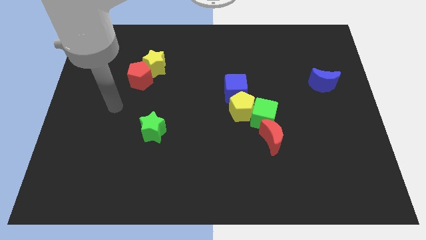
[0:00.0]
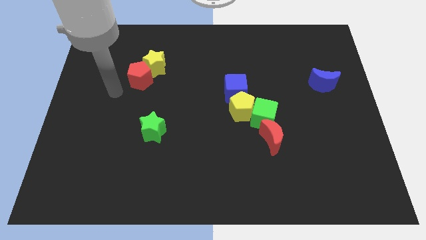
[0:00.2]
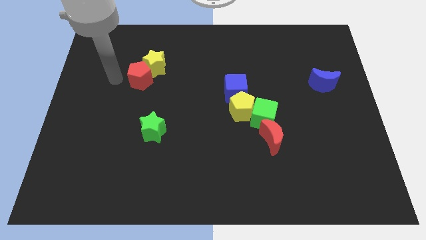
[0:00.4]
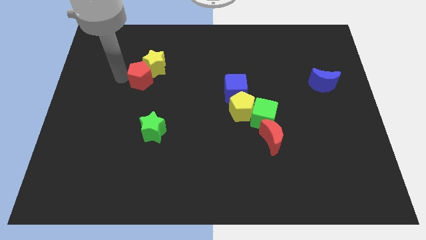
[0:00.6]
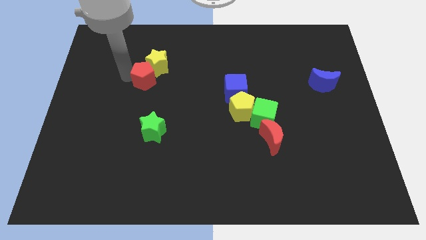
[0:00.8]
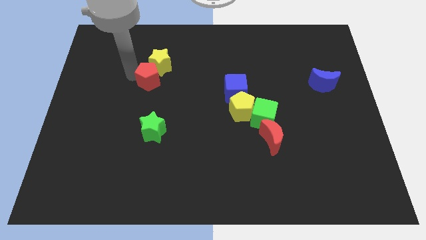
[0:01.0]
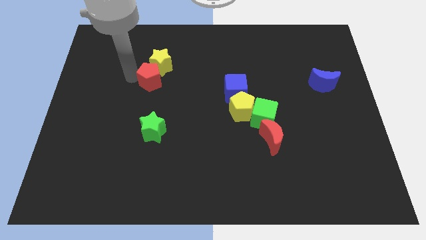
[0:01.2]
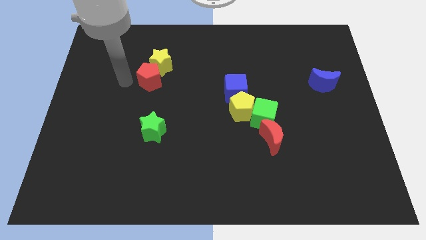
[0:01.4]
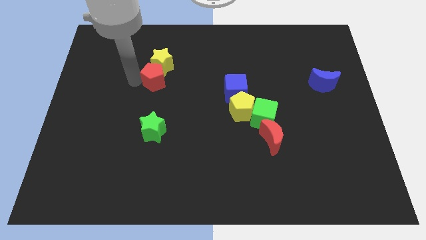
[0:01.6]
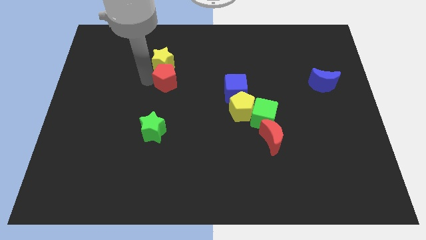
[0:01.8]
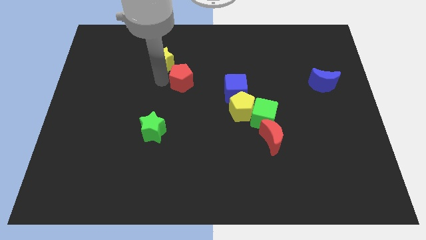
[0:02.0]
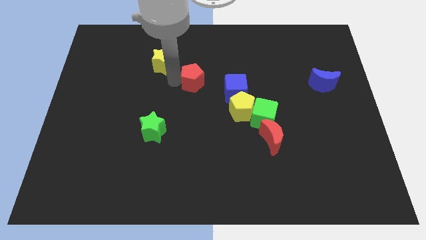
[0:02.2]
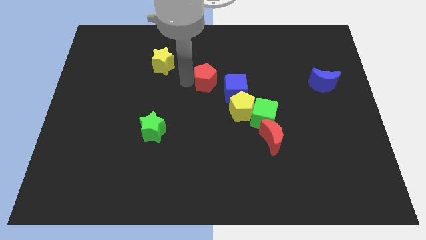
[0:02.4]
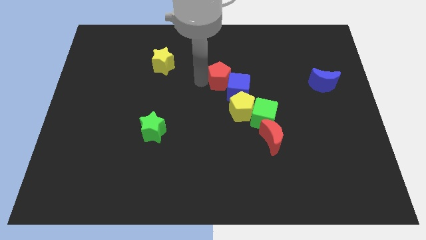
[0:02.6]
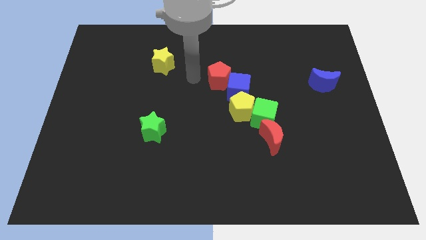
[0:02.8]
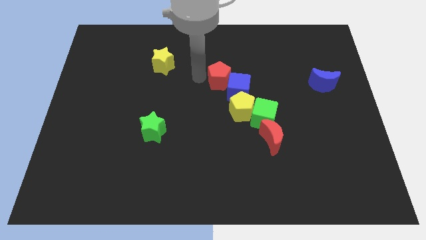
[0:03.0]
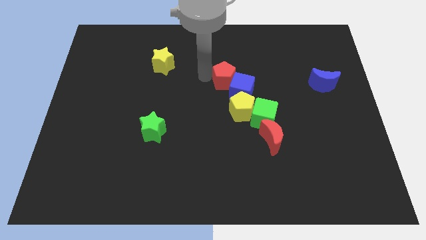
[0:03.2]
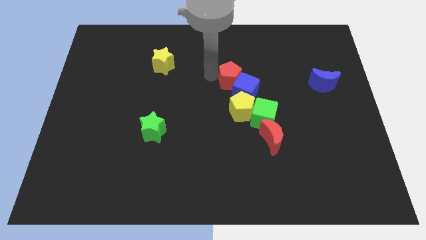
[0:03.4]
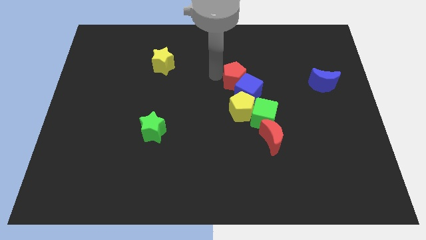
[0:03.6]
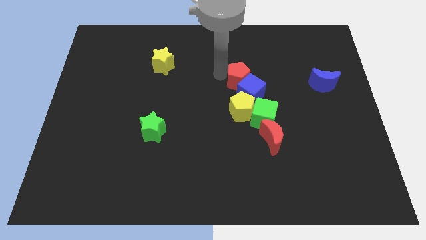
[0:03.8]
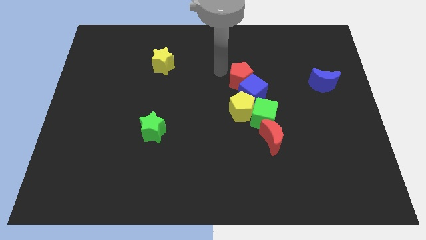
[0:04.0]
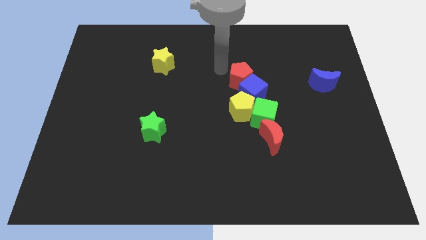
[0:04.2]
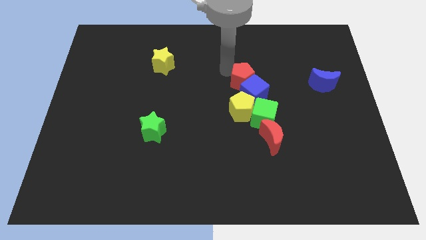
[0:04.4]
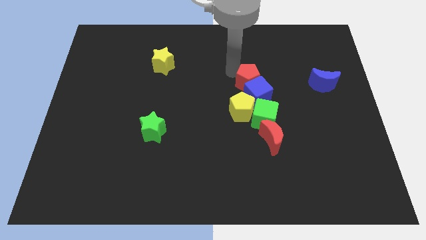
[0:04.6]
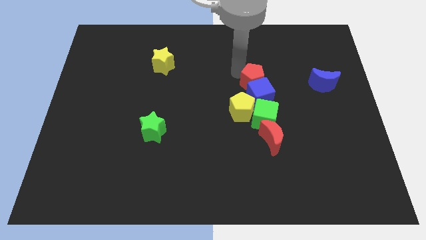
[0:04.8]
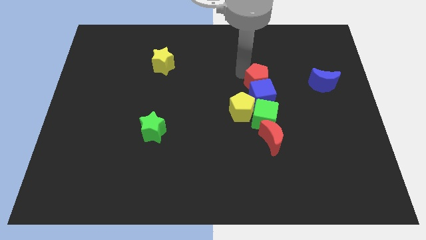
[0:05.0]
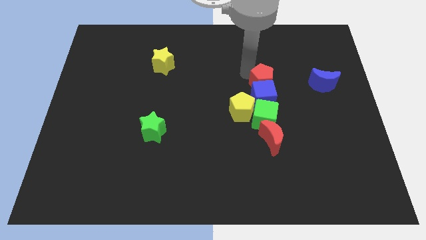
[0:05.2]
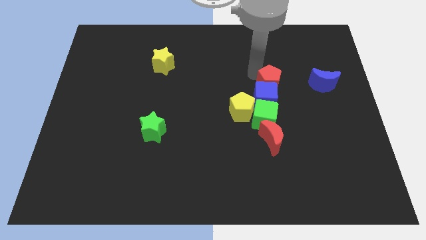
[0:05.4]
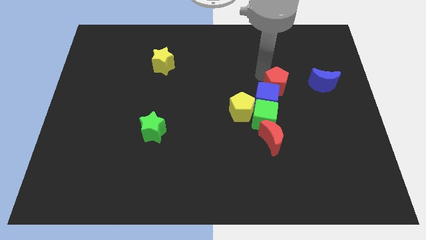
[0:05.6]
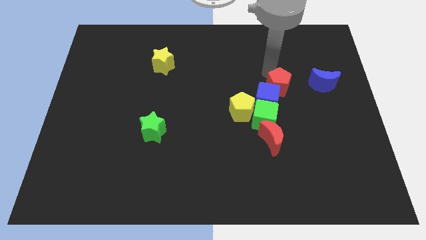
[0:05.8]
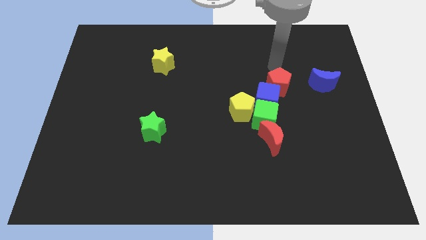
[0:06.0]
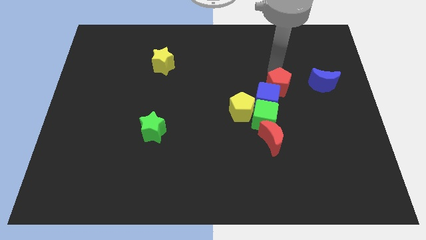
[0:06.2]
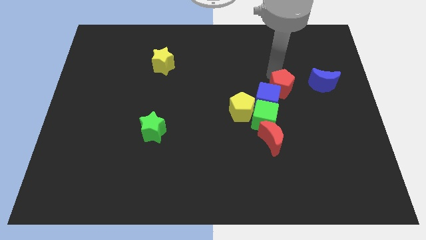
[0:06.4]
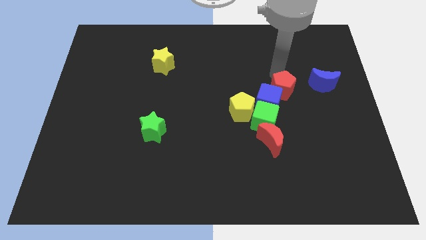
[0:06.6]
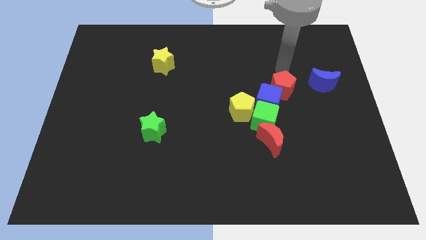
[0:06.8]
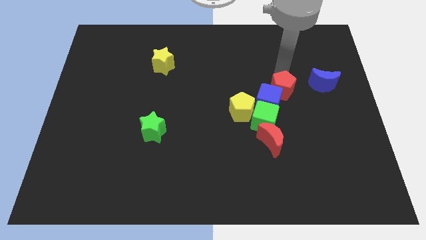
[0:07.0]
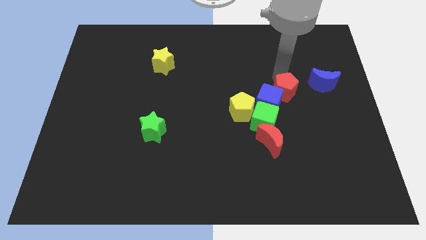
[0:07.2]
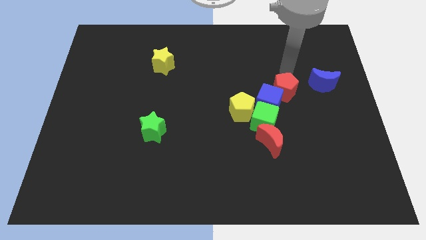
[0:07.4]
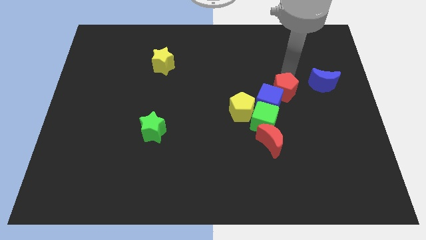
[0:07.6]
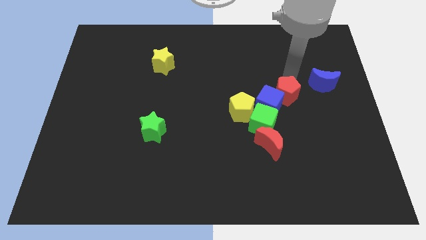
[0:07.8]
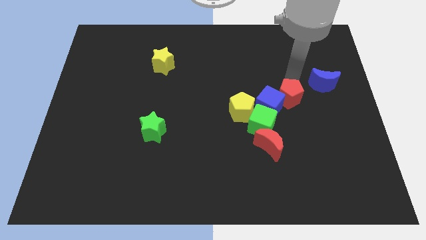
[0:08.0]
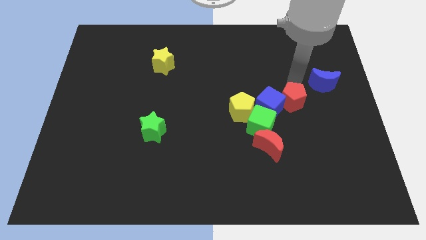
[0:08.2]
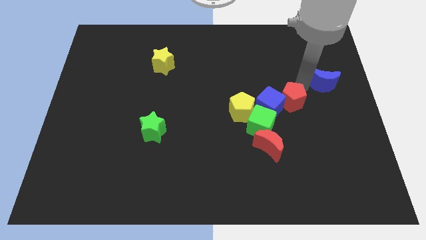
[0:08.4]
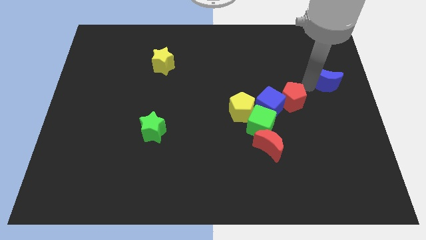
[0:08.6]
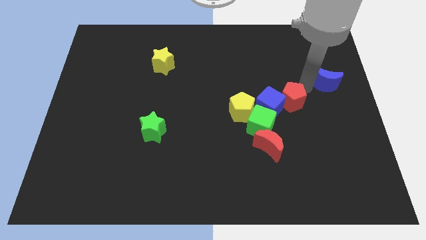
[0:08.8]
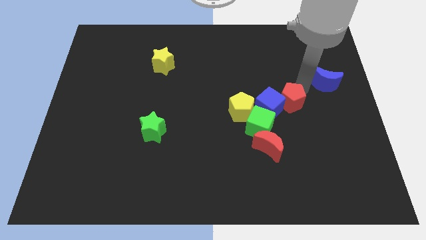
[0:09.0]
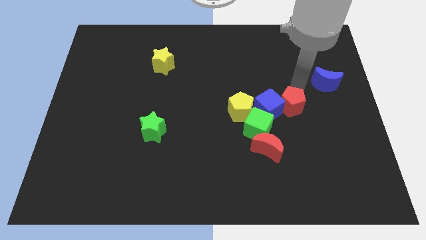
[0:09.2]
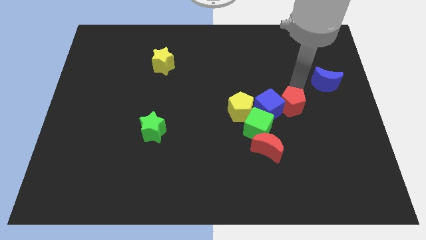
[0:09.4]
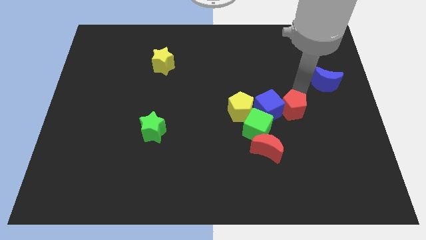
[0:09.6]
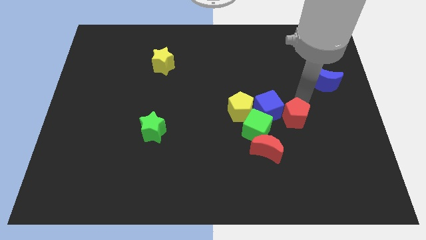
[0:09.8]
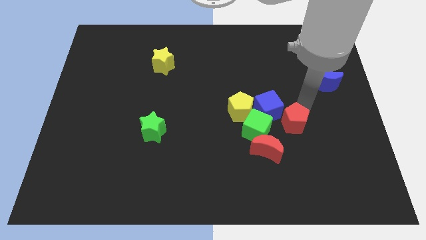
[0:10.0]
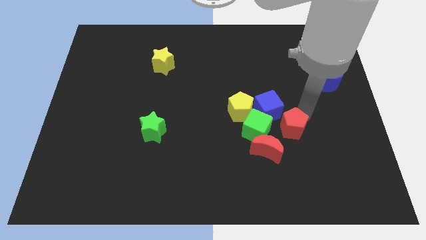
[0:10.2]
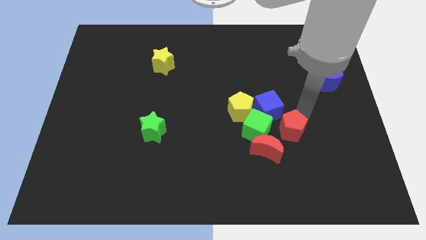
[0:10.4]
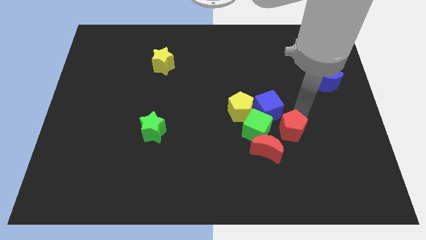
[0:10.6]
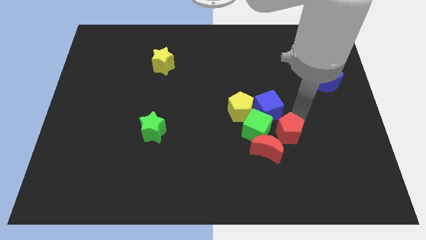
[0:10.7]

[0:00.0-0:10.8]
push the red pentagon diagonally down and to the right of the green cube

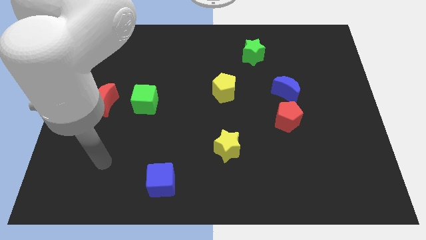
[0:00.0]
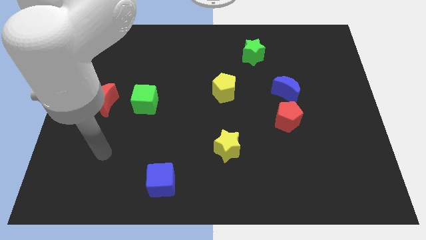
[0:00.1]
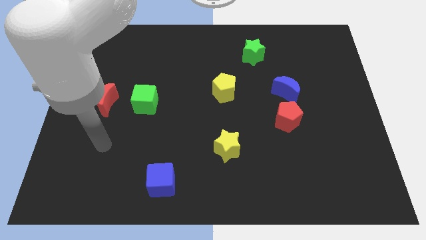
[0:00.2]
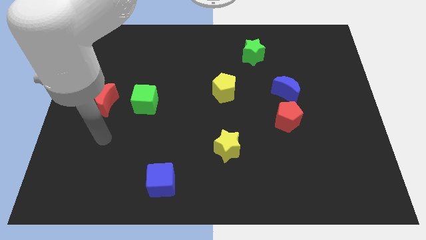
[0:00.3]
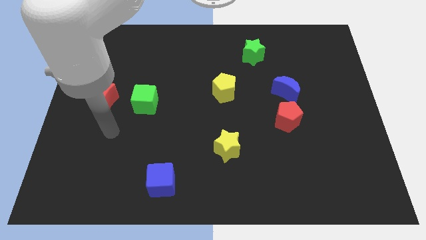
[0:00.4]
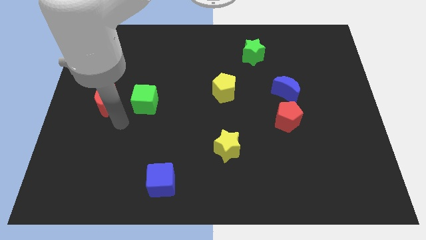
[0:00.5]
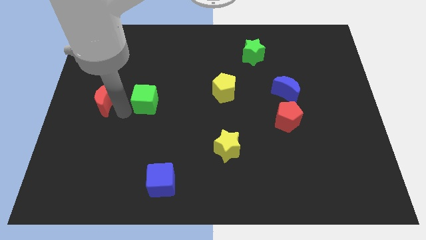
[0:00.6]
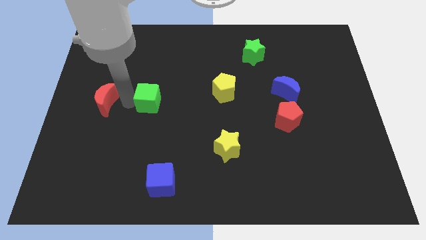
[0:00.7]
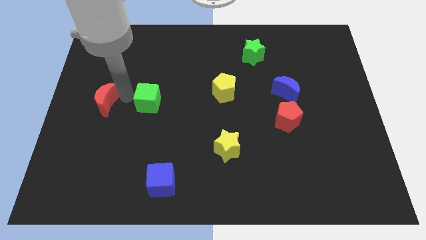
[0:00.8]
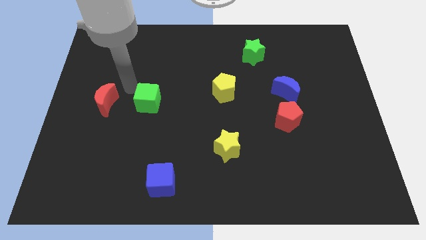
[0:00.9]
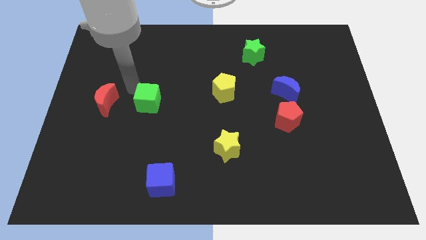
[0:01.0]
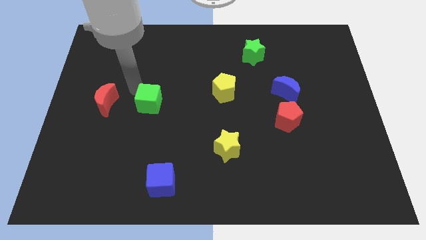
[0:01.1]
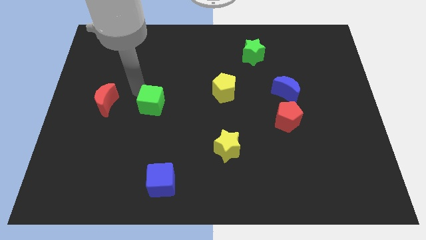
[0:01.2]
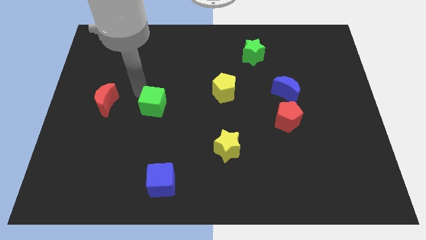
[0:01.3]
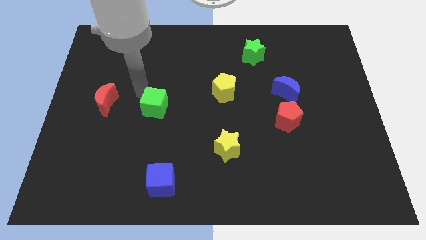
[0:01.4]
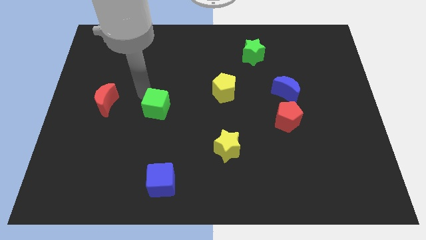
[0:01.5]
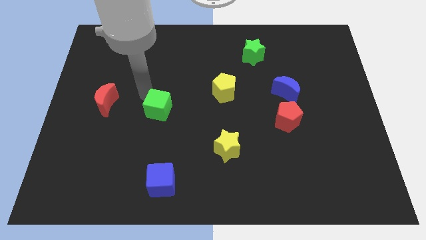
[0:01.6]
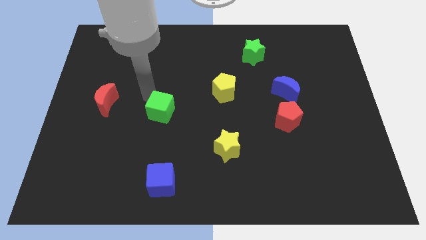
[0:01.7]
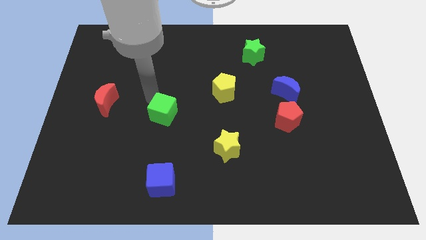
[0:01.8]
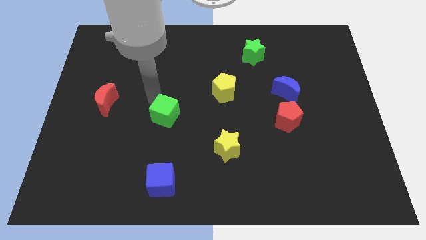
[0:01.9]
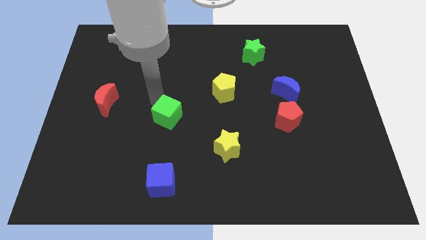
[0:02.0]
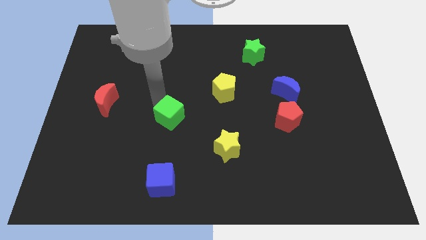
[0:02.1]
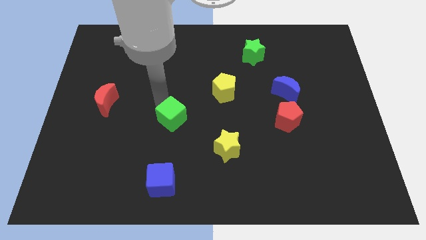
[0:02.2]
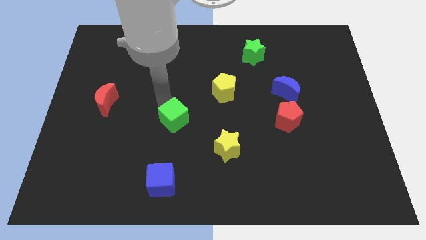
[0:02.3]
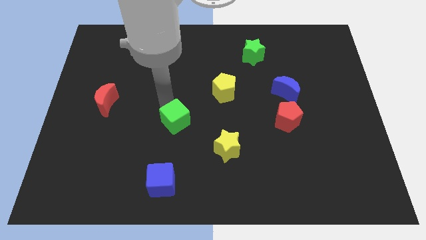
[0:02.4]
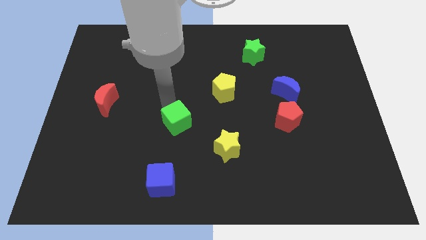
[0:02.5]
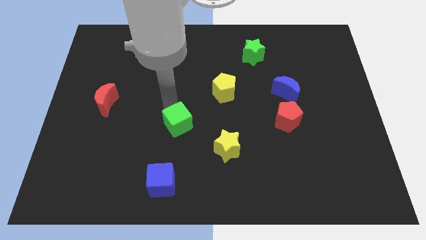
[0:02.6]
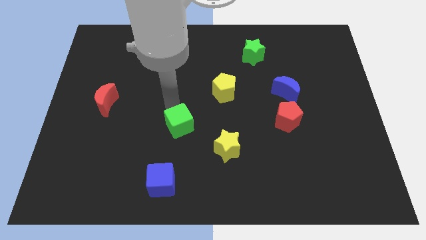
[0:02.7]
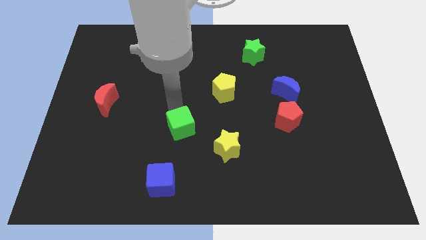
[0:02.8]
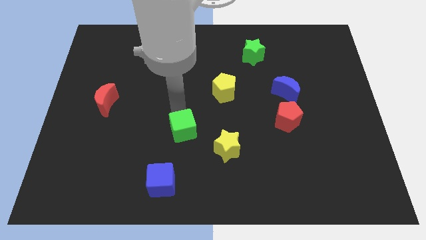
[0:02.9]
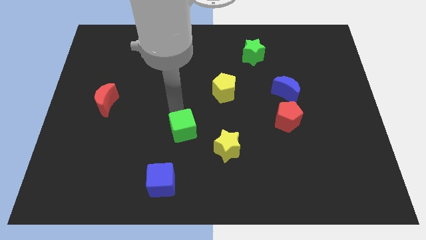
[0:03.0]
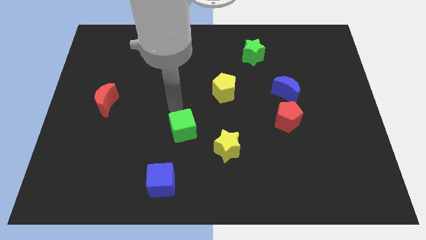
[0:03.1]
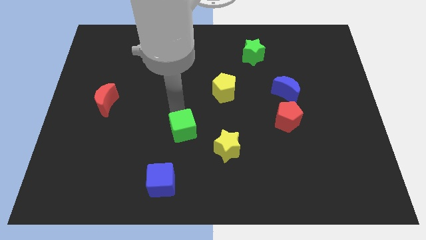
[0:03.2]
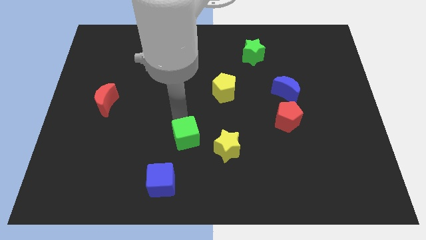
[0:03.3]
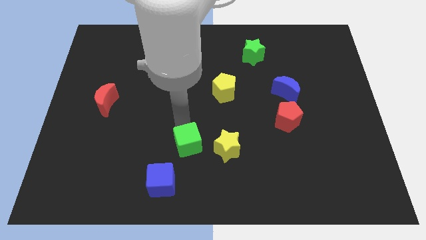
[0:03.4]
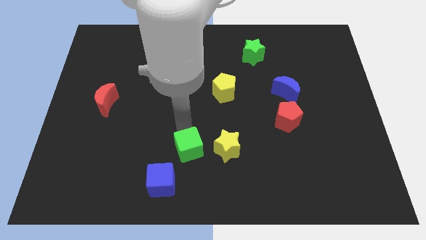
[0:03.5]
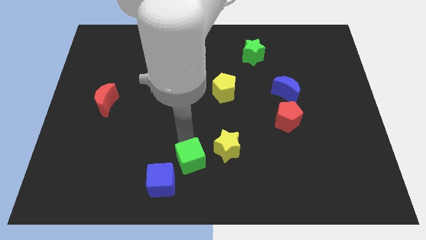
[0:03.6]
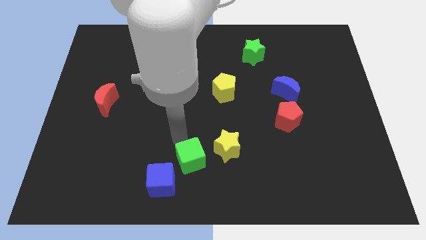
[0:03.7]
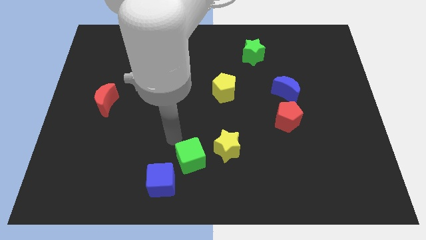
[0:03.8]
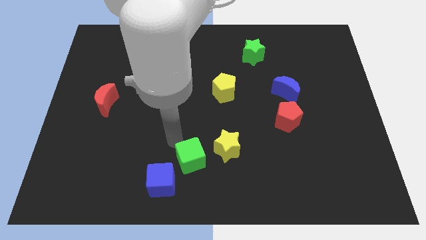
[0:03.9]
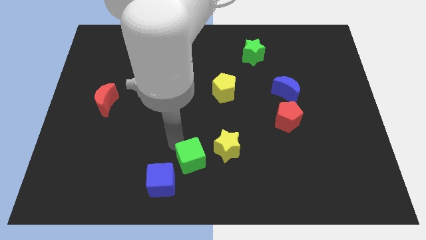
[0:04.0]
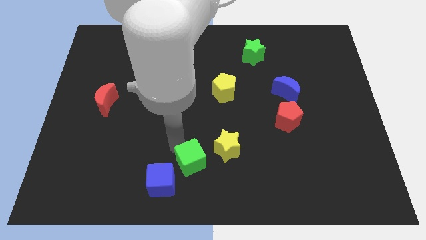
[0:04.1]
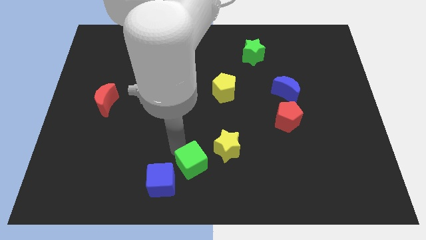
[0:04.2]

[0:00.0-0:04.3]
slide the green cube to the right side of the blue cube
